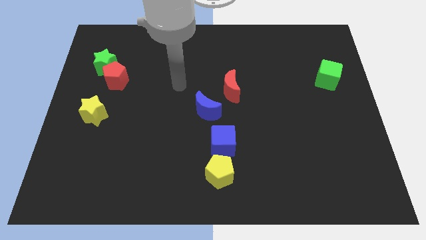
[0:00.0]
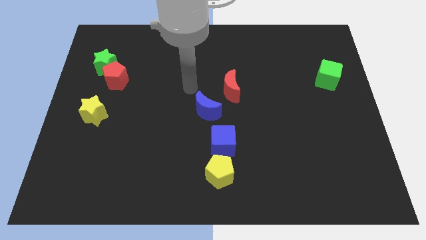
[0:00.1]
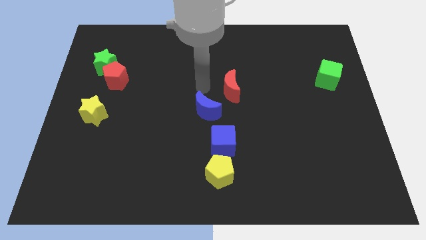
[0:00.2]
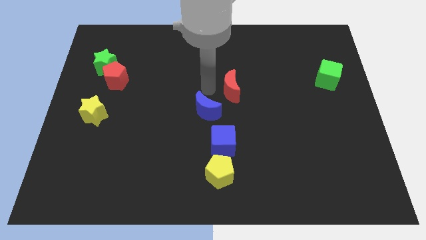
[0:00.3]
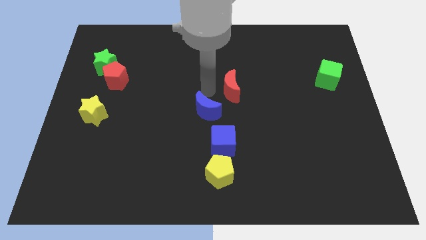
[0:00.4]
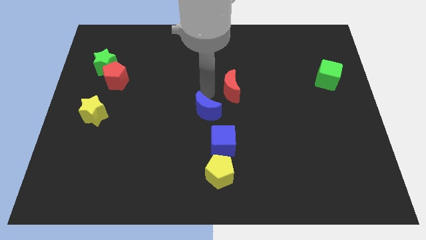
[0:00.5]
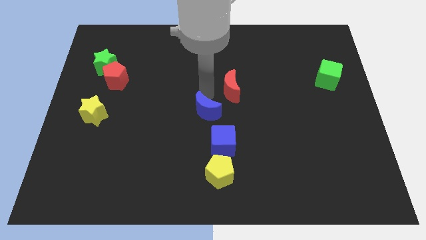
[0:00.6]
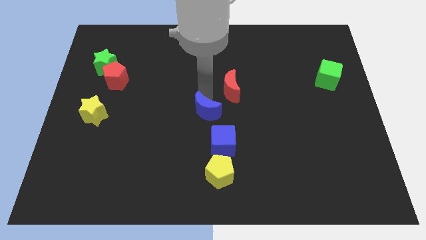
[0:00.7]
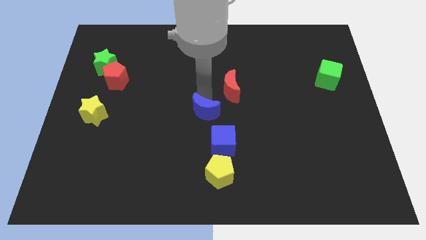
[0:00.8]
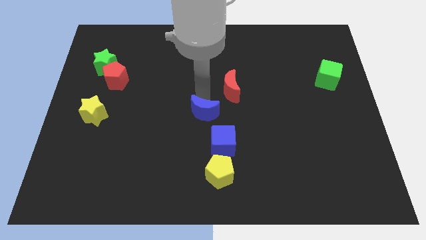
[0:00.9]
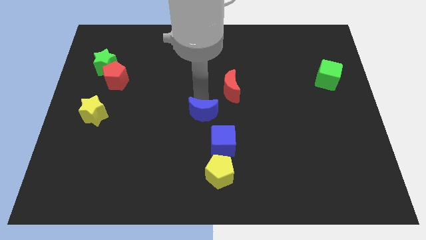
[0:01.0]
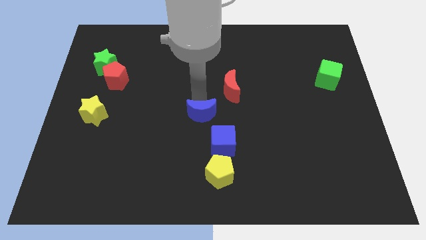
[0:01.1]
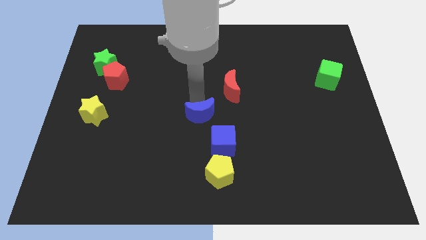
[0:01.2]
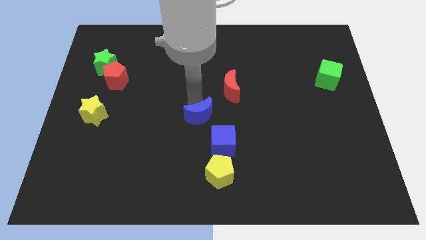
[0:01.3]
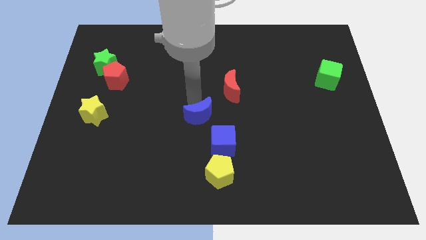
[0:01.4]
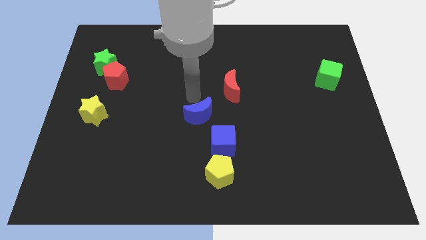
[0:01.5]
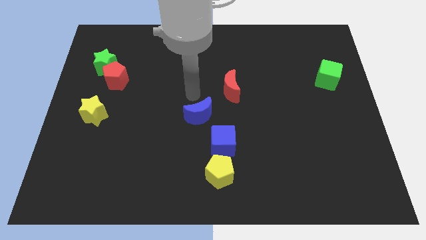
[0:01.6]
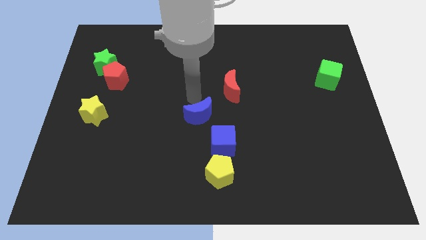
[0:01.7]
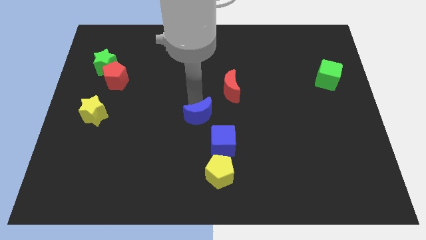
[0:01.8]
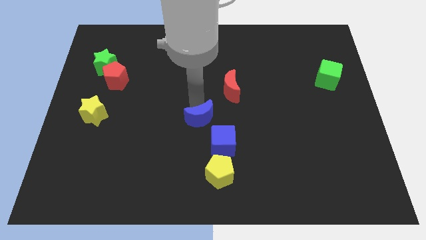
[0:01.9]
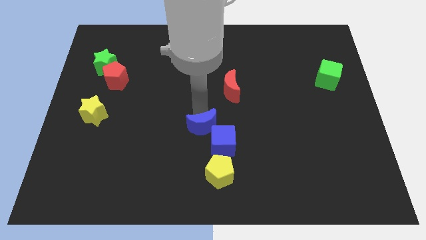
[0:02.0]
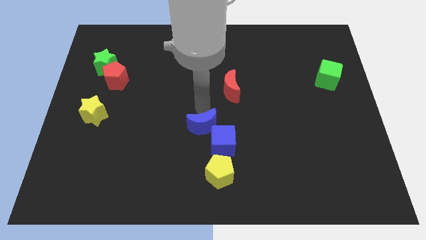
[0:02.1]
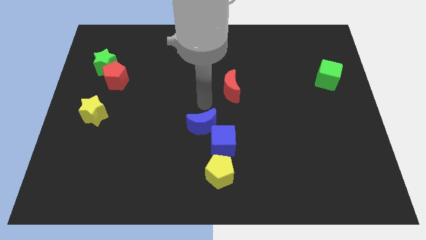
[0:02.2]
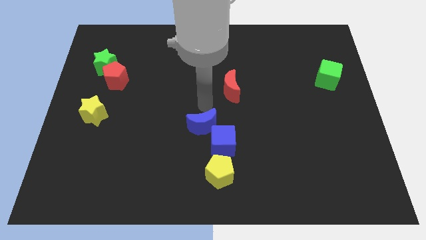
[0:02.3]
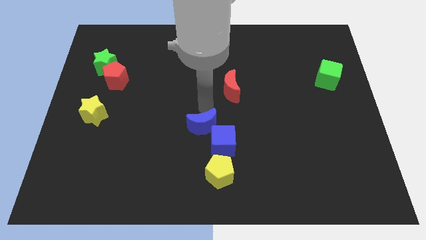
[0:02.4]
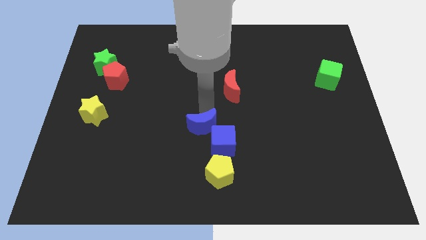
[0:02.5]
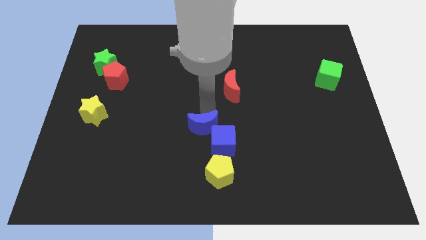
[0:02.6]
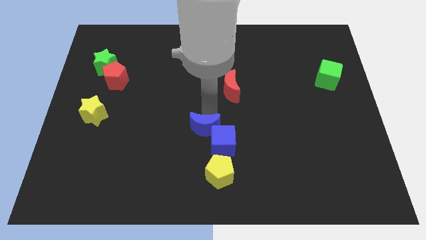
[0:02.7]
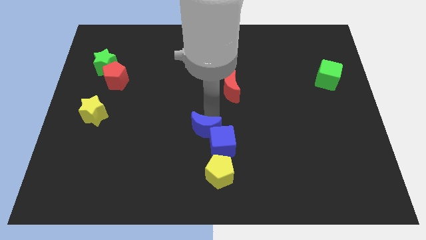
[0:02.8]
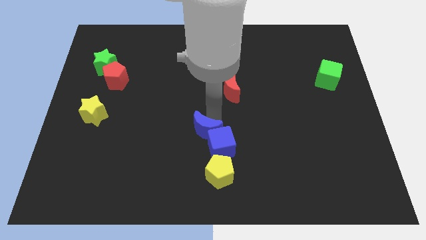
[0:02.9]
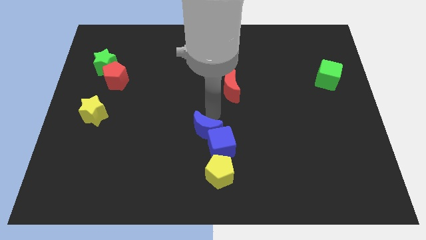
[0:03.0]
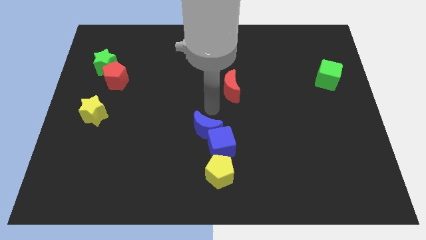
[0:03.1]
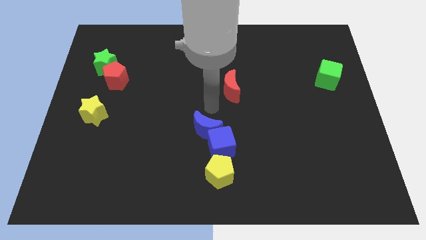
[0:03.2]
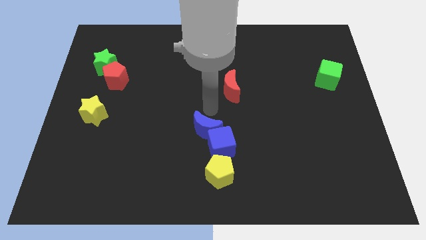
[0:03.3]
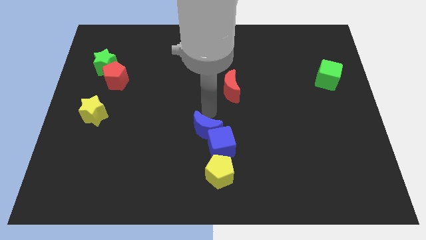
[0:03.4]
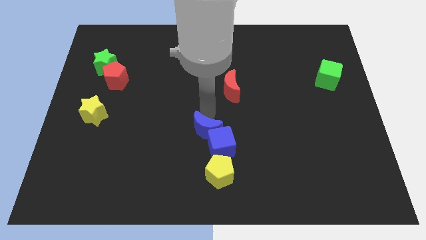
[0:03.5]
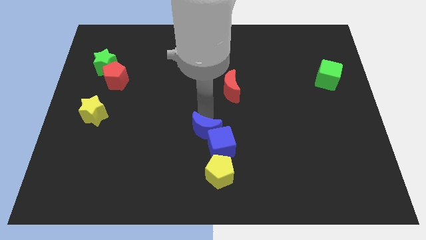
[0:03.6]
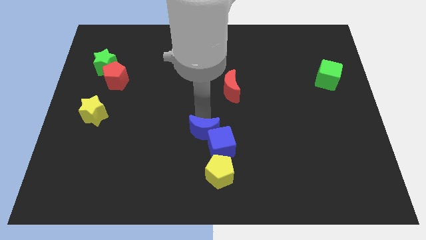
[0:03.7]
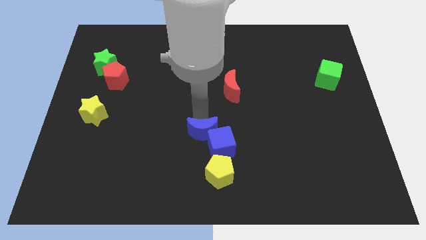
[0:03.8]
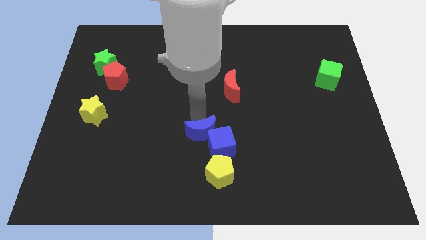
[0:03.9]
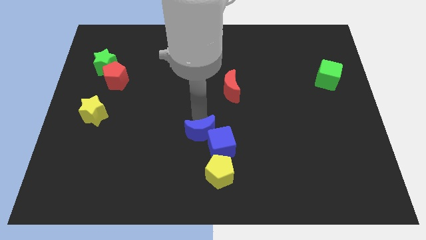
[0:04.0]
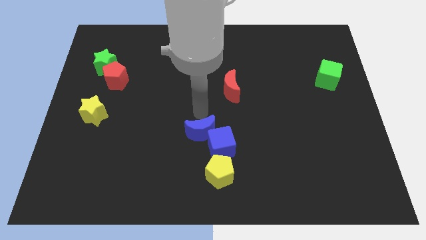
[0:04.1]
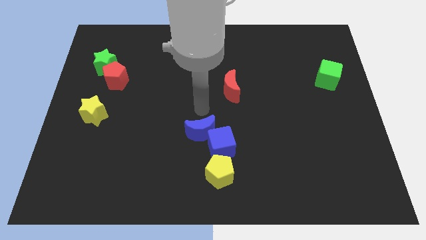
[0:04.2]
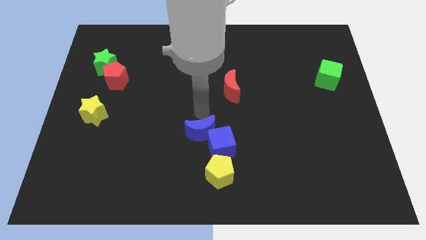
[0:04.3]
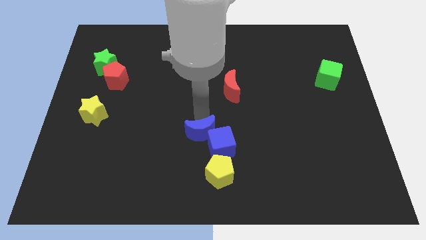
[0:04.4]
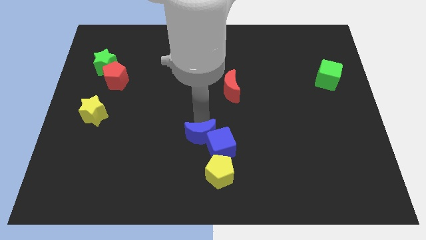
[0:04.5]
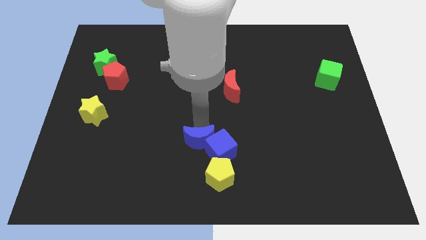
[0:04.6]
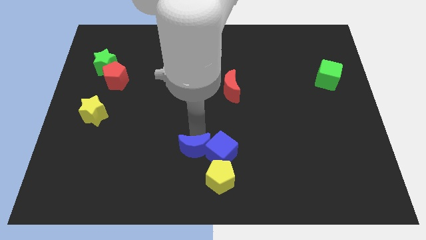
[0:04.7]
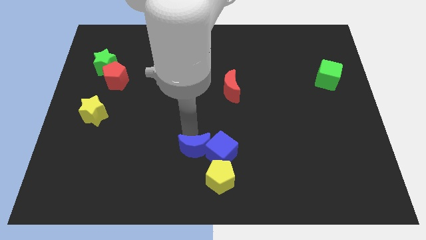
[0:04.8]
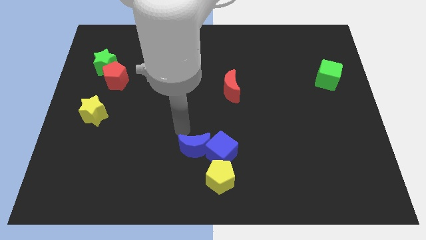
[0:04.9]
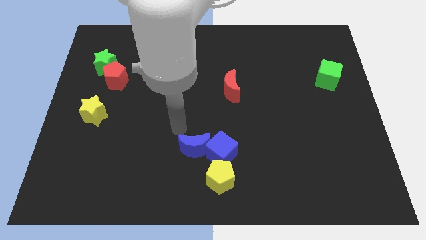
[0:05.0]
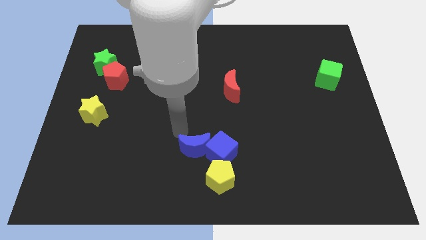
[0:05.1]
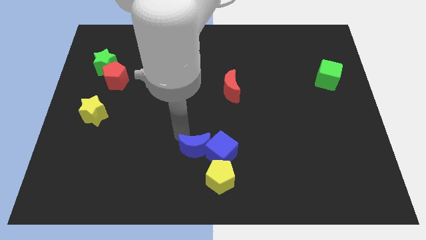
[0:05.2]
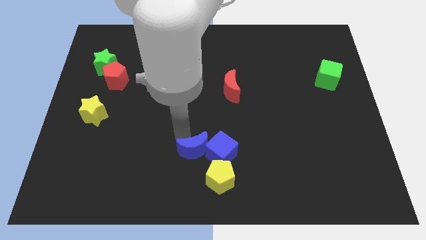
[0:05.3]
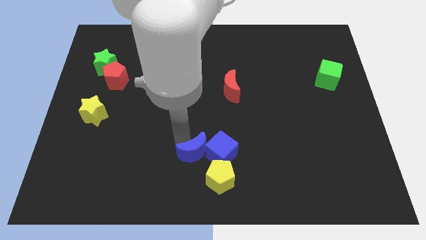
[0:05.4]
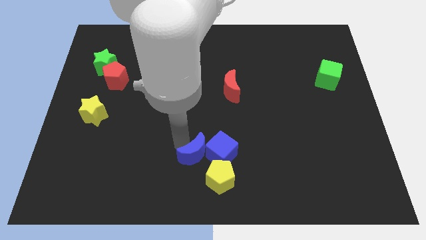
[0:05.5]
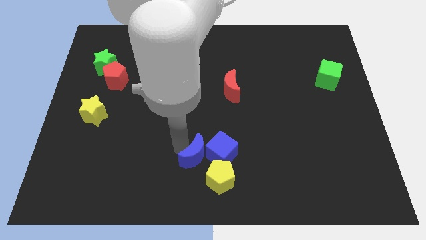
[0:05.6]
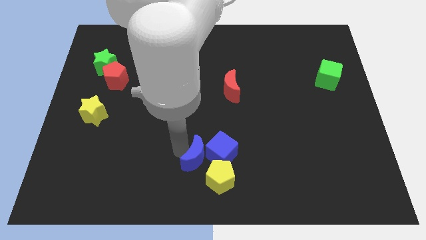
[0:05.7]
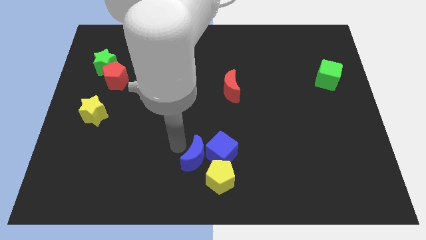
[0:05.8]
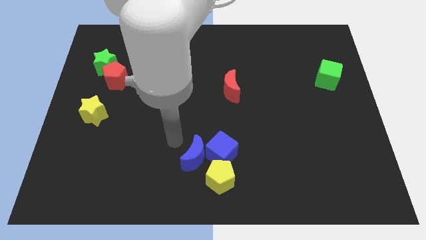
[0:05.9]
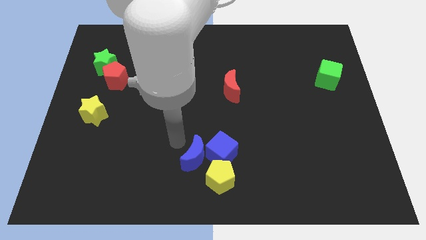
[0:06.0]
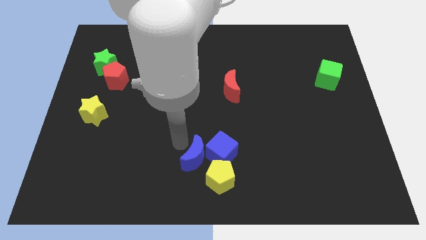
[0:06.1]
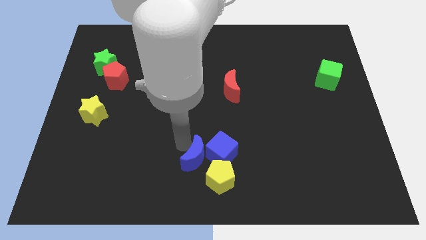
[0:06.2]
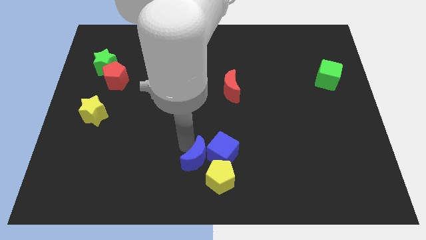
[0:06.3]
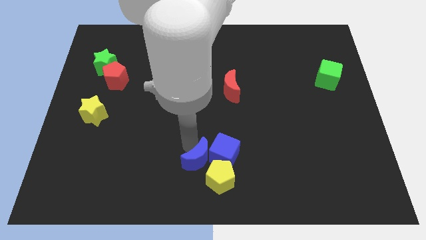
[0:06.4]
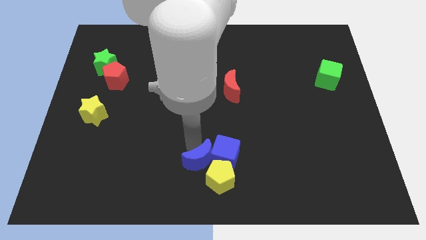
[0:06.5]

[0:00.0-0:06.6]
slide the blue moon to the yellow pentagon
